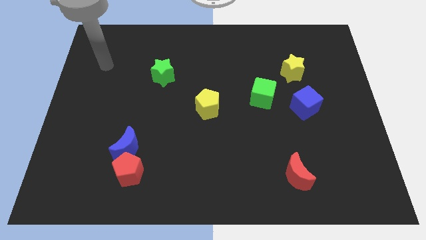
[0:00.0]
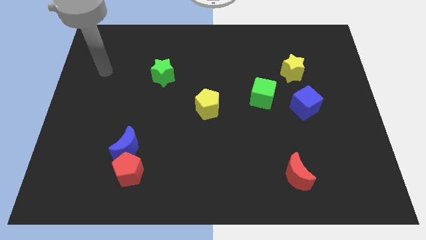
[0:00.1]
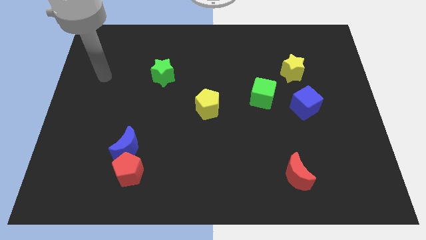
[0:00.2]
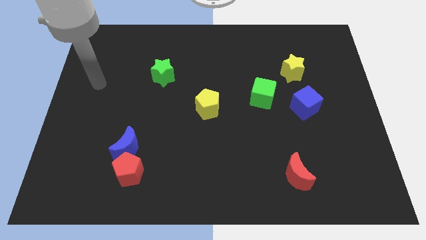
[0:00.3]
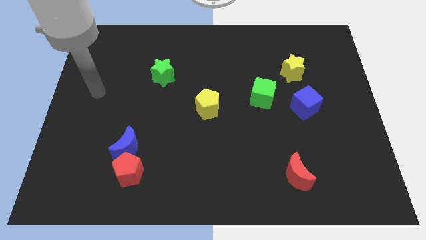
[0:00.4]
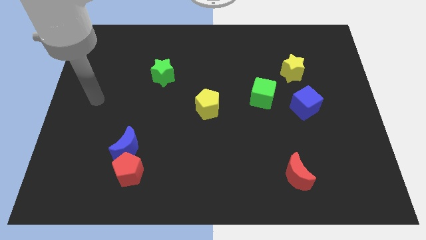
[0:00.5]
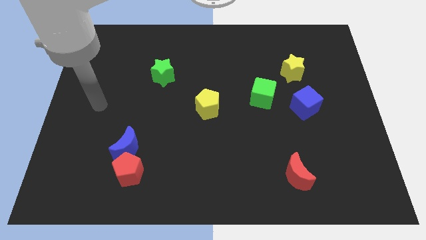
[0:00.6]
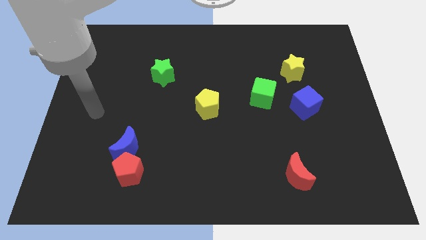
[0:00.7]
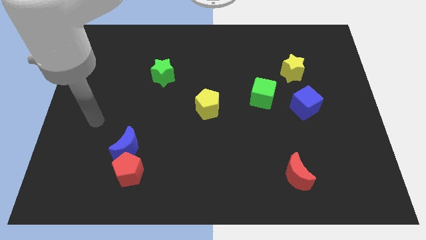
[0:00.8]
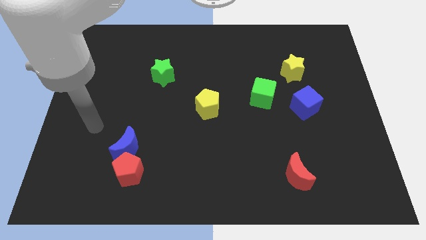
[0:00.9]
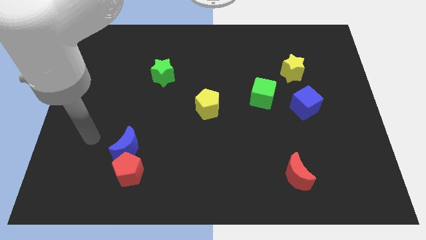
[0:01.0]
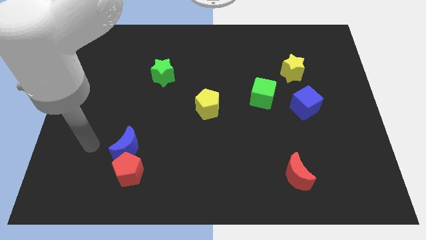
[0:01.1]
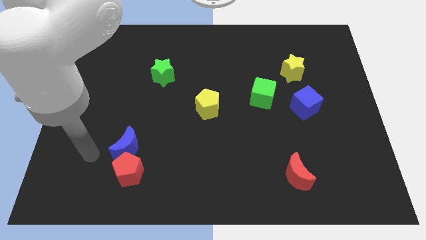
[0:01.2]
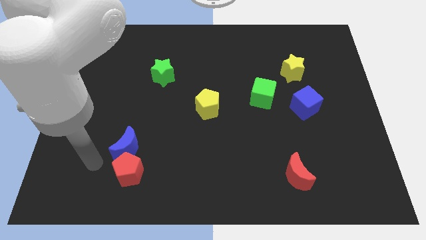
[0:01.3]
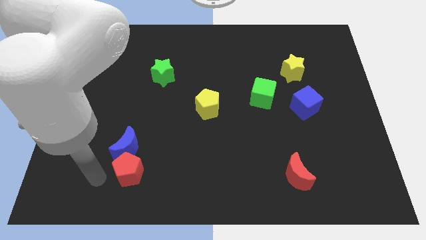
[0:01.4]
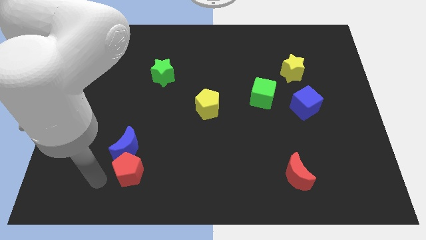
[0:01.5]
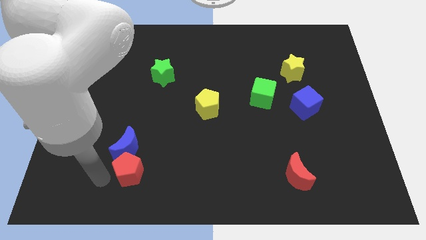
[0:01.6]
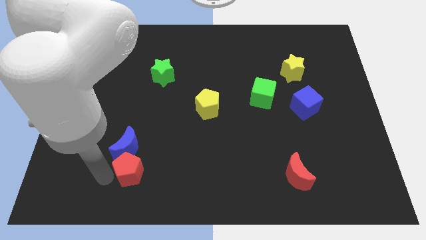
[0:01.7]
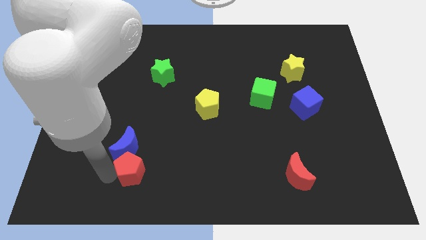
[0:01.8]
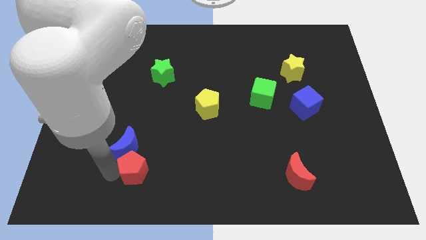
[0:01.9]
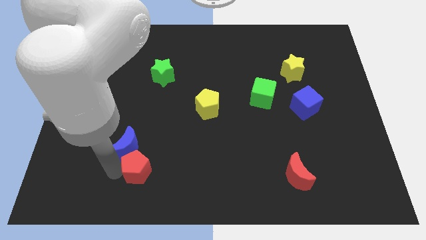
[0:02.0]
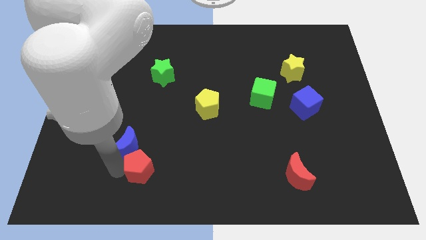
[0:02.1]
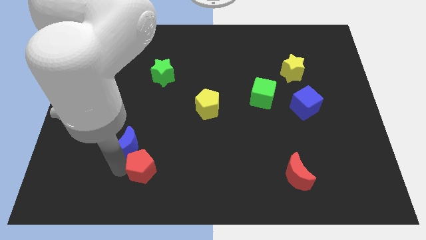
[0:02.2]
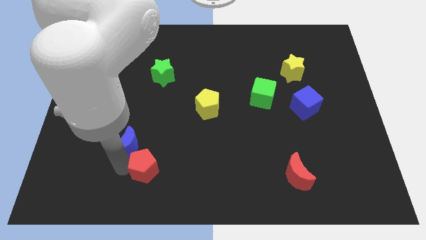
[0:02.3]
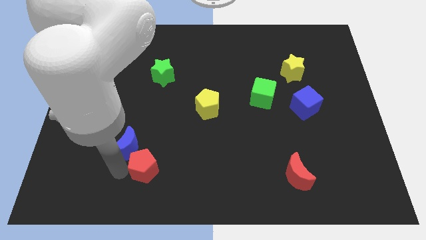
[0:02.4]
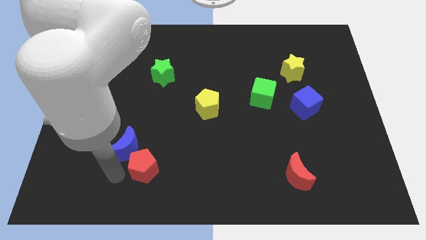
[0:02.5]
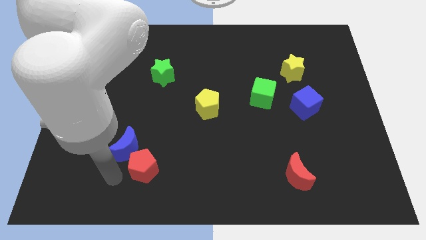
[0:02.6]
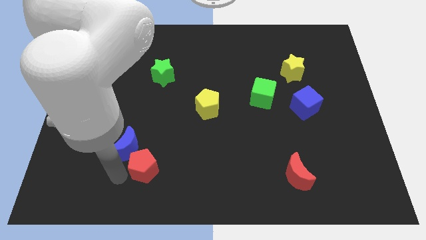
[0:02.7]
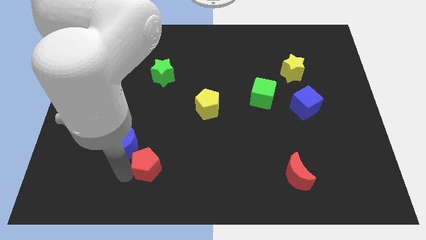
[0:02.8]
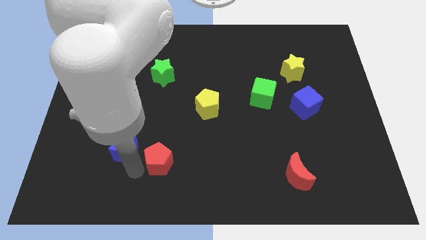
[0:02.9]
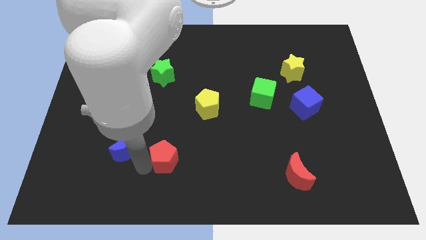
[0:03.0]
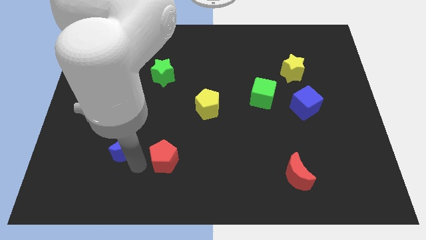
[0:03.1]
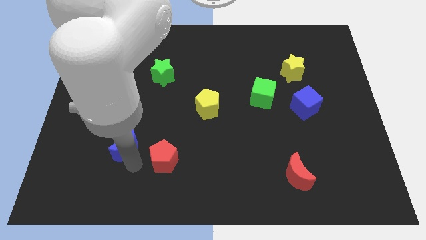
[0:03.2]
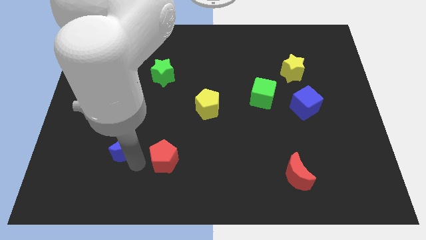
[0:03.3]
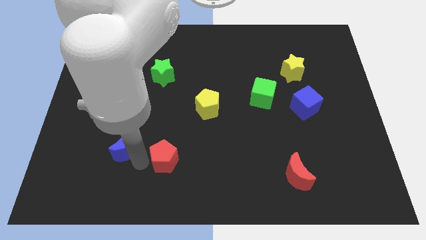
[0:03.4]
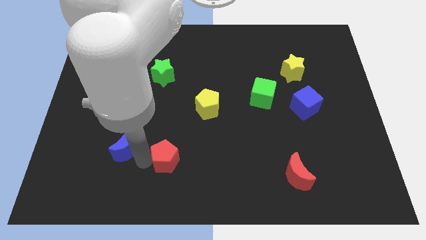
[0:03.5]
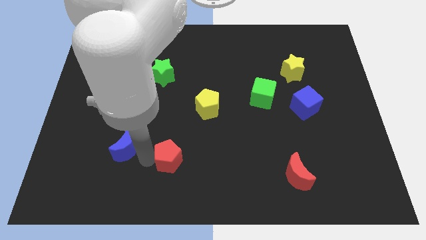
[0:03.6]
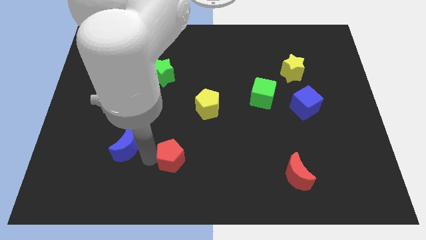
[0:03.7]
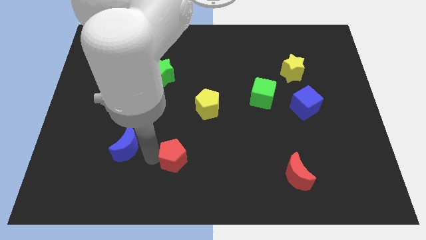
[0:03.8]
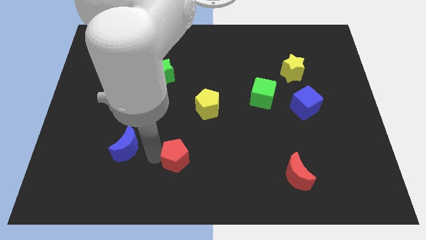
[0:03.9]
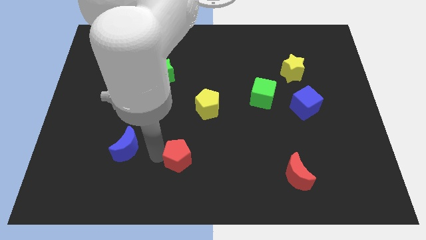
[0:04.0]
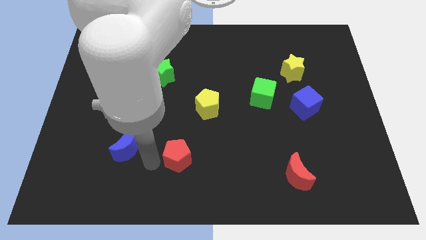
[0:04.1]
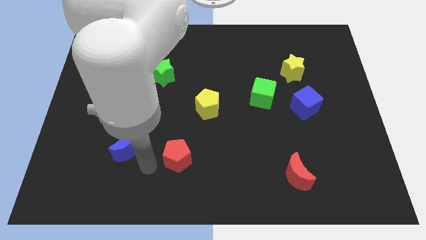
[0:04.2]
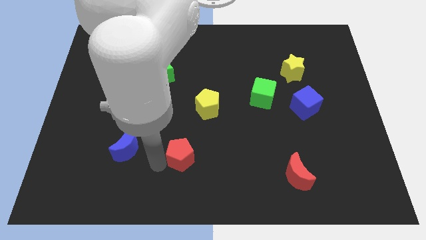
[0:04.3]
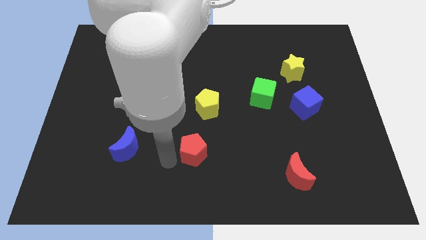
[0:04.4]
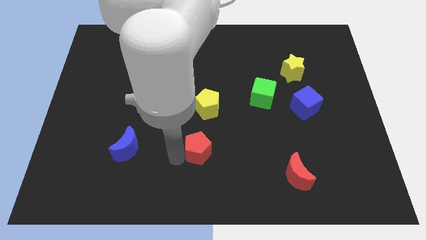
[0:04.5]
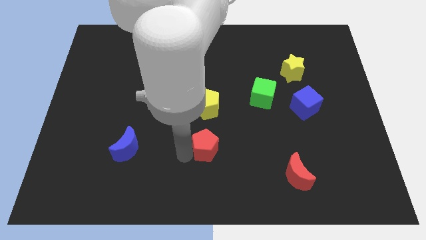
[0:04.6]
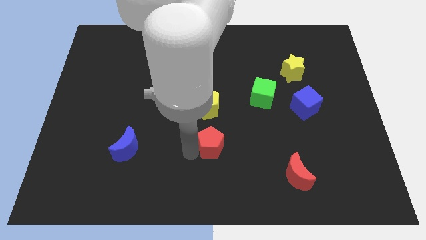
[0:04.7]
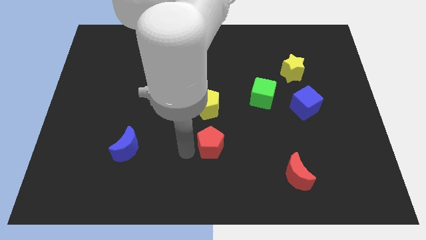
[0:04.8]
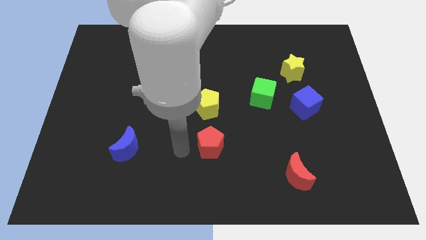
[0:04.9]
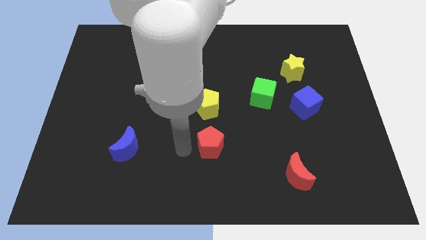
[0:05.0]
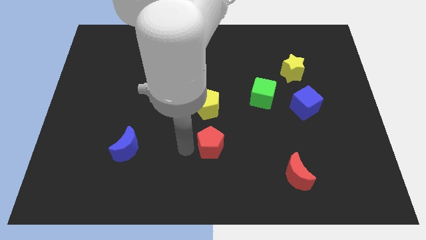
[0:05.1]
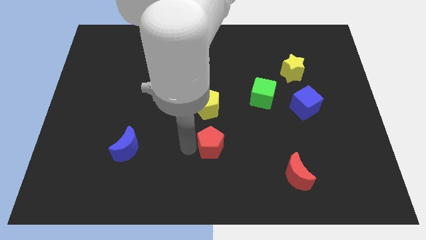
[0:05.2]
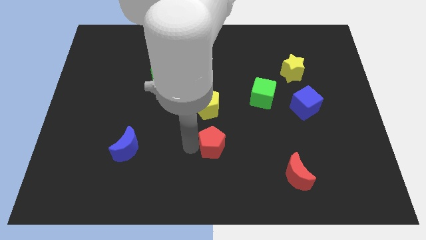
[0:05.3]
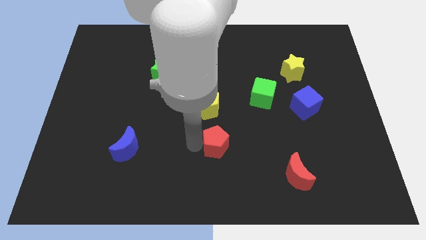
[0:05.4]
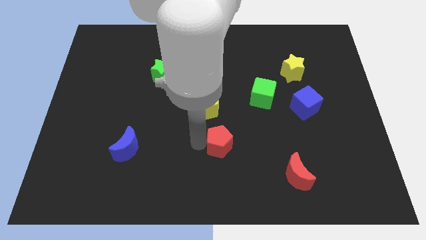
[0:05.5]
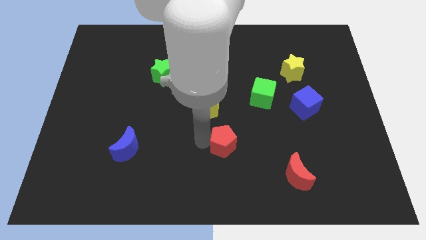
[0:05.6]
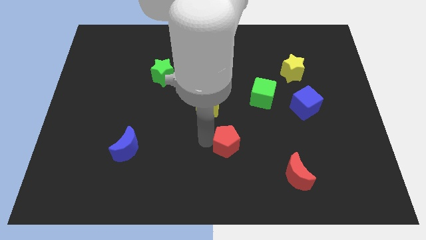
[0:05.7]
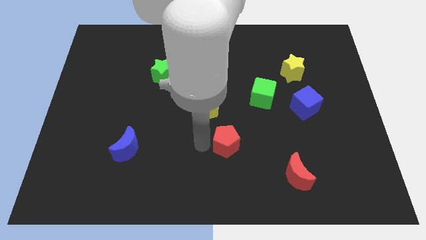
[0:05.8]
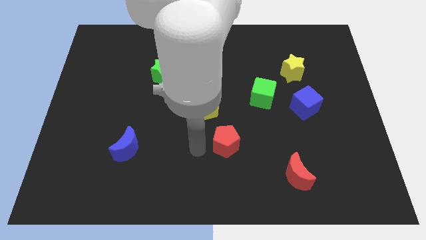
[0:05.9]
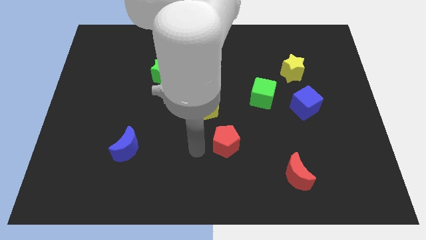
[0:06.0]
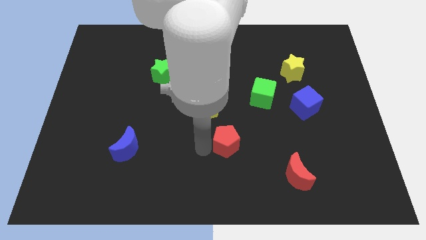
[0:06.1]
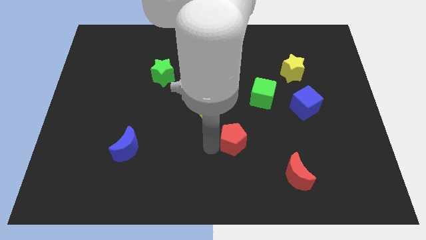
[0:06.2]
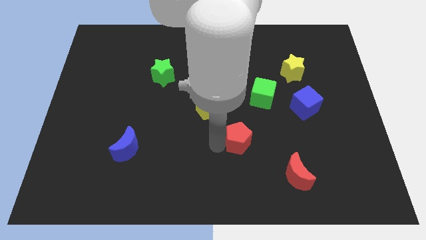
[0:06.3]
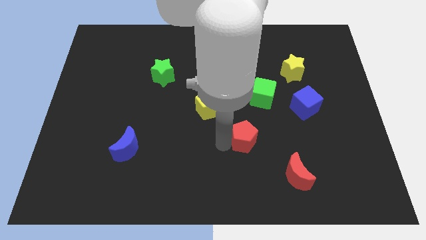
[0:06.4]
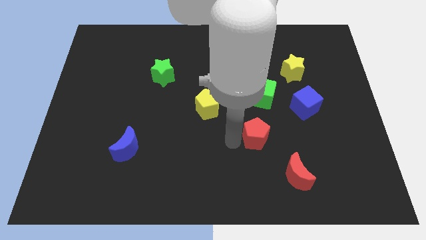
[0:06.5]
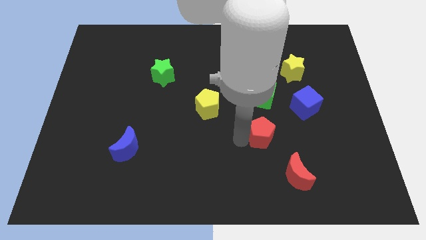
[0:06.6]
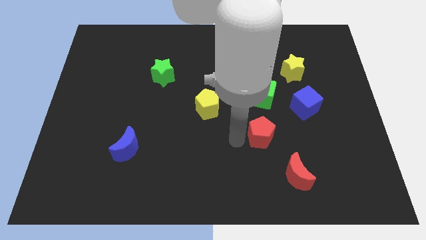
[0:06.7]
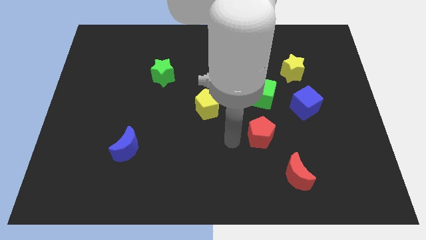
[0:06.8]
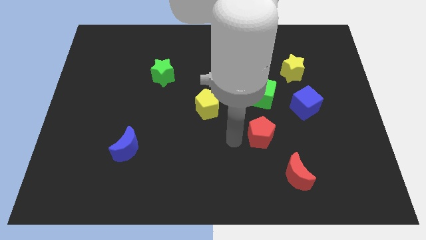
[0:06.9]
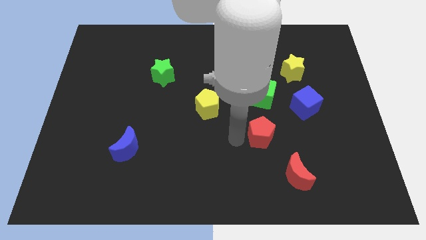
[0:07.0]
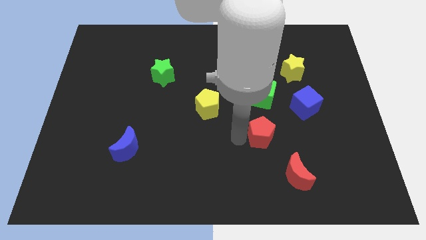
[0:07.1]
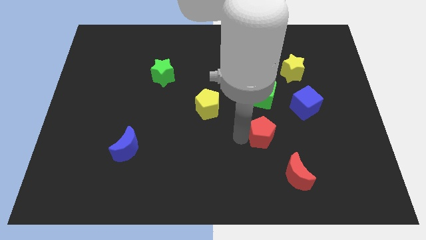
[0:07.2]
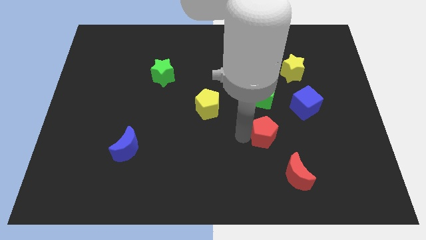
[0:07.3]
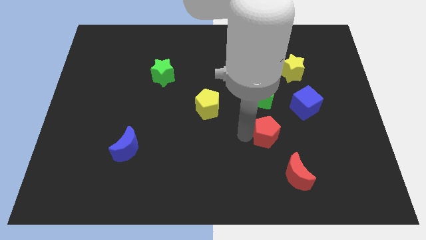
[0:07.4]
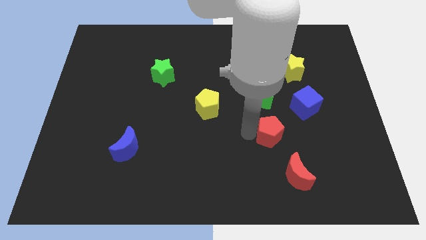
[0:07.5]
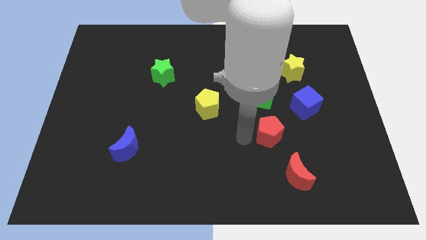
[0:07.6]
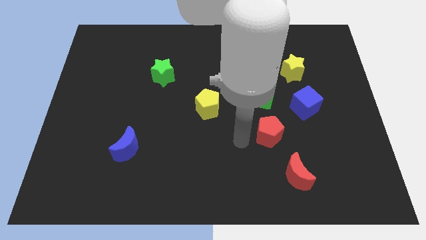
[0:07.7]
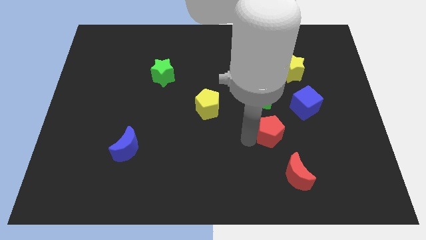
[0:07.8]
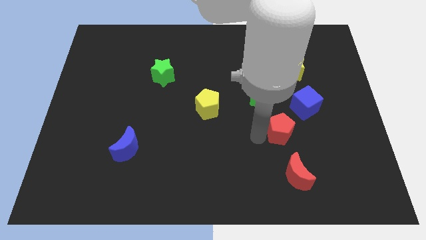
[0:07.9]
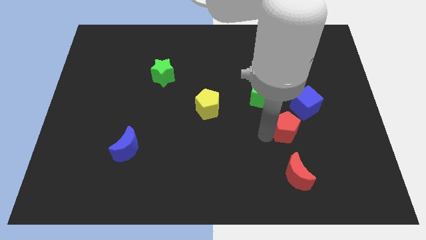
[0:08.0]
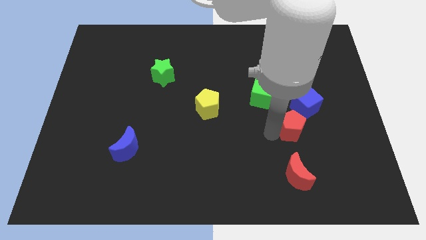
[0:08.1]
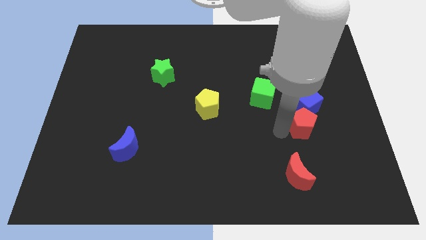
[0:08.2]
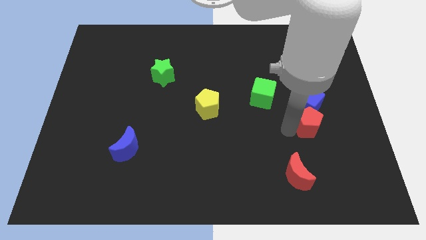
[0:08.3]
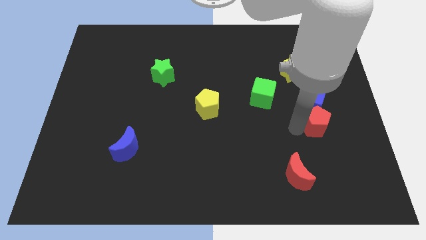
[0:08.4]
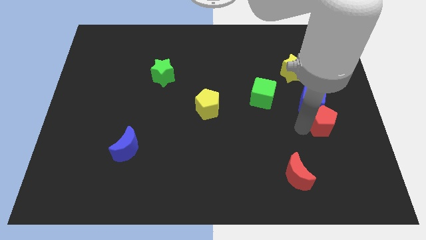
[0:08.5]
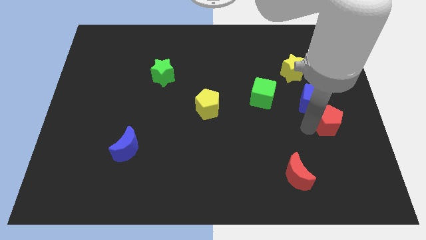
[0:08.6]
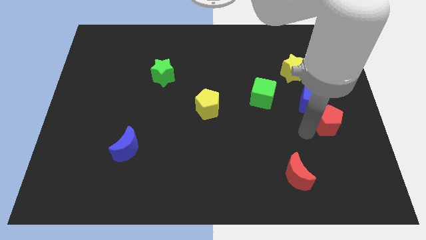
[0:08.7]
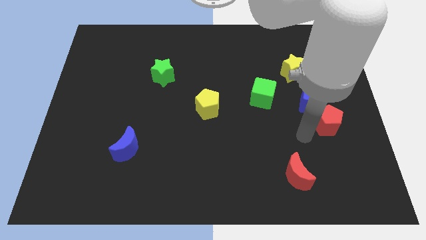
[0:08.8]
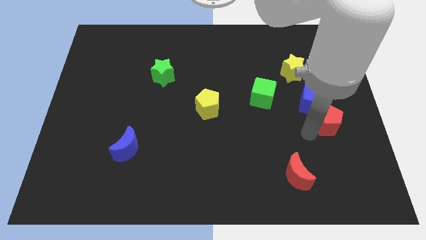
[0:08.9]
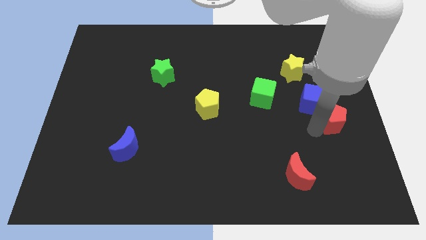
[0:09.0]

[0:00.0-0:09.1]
move the red pentagon to the right side
